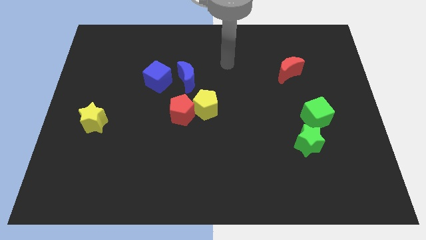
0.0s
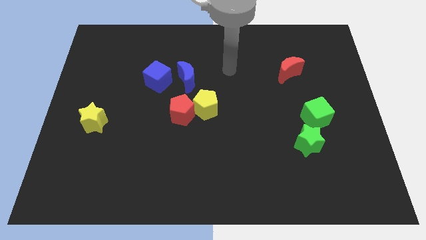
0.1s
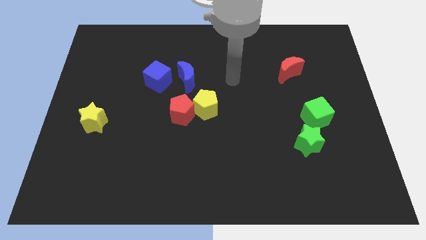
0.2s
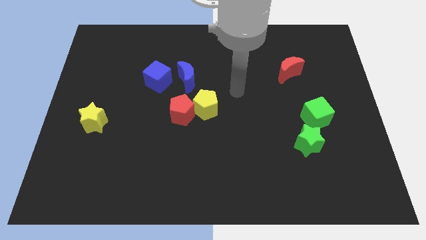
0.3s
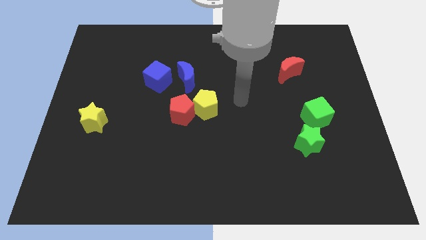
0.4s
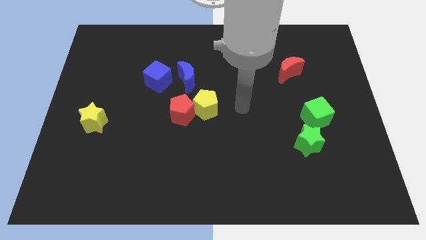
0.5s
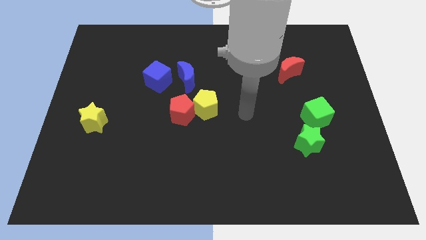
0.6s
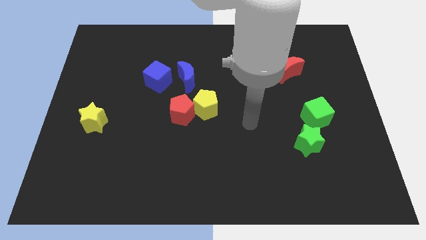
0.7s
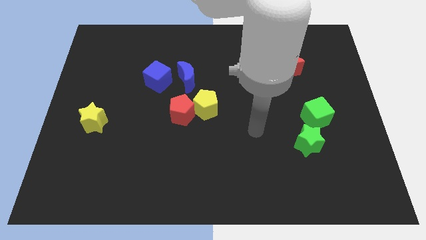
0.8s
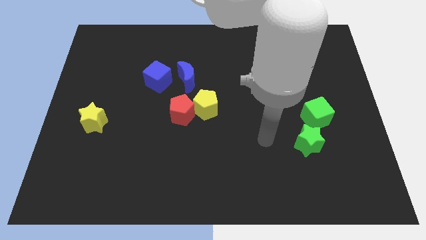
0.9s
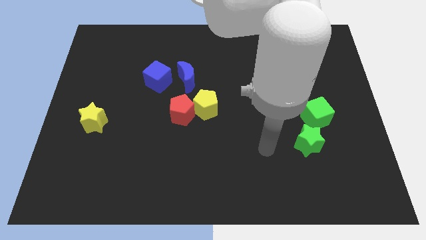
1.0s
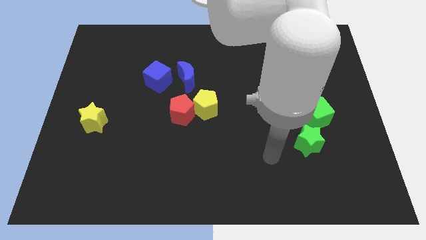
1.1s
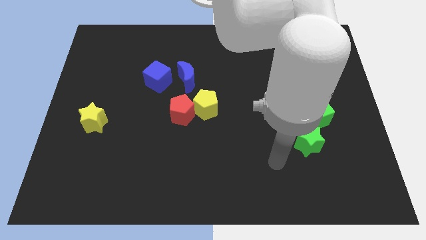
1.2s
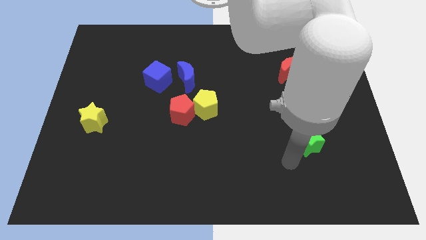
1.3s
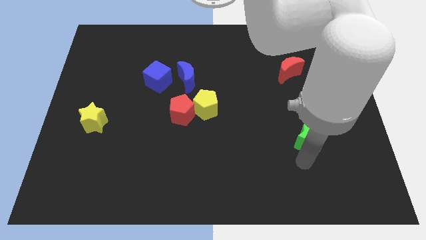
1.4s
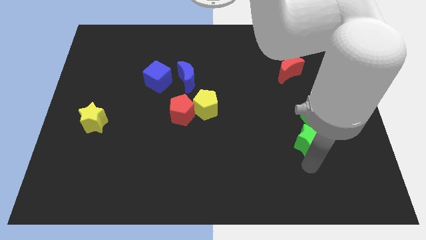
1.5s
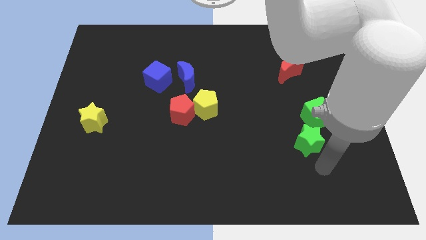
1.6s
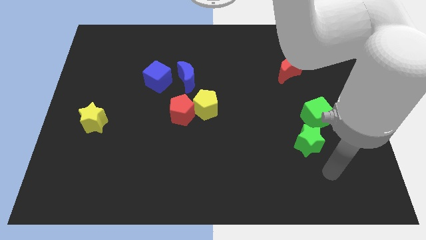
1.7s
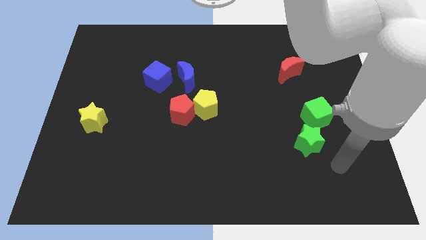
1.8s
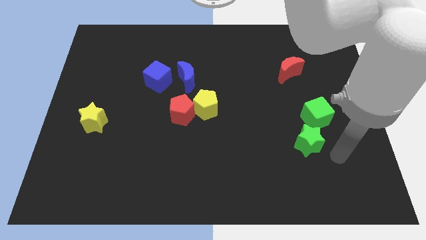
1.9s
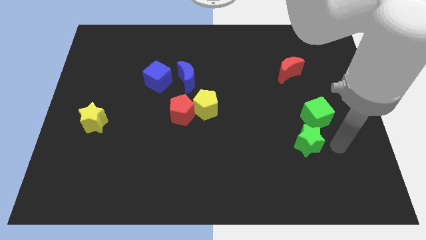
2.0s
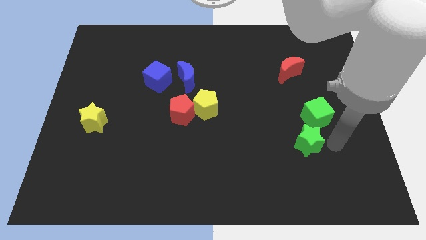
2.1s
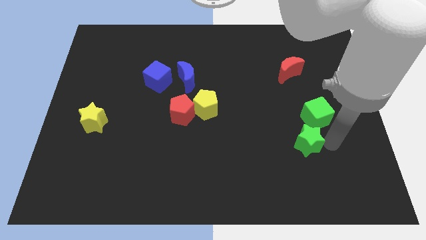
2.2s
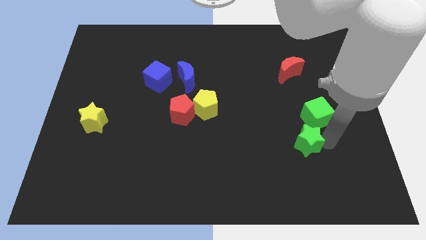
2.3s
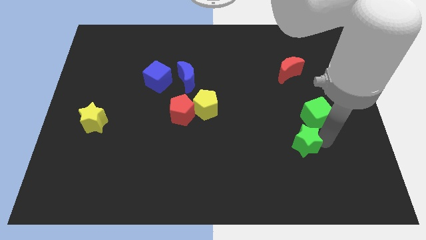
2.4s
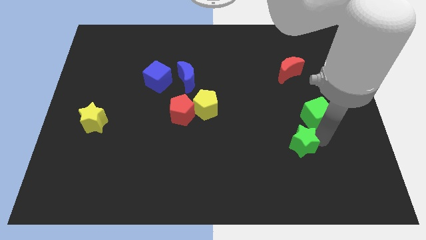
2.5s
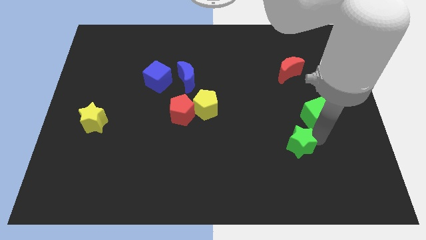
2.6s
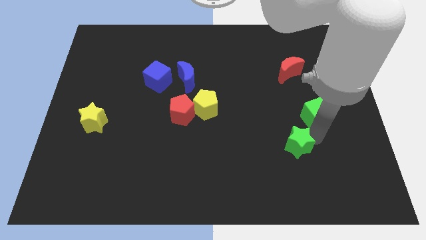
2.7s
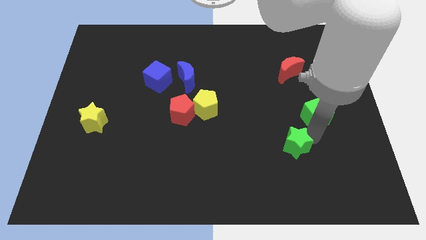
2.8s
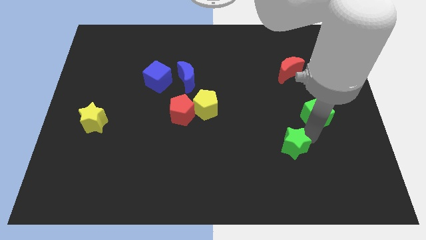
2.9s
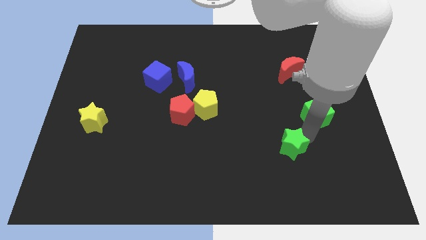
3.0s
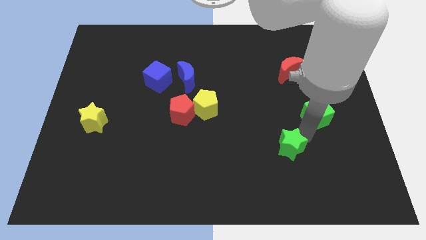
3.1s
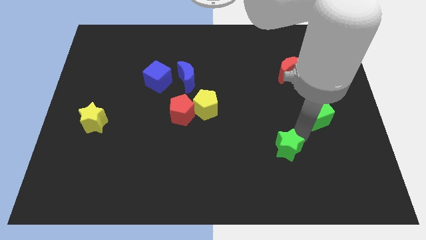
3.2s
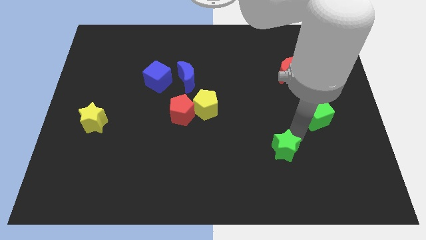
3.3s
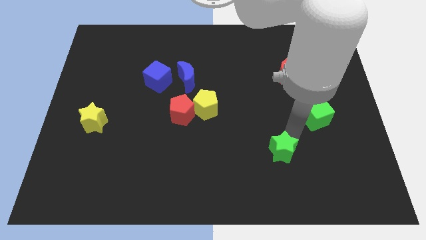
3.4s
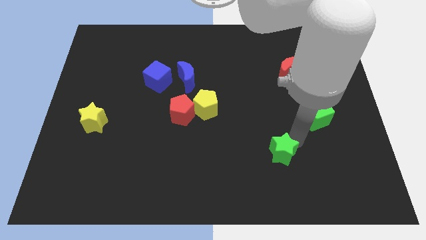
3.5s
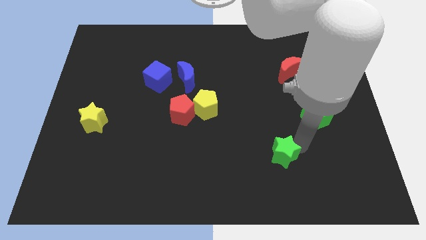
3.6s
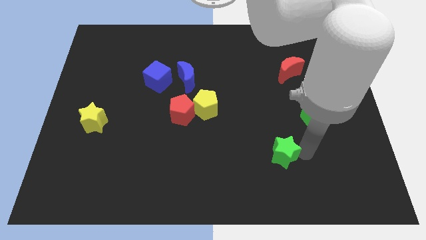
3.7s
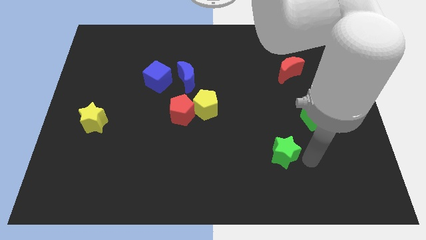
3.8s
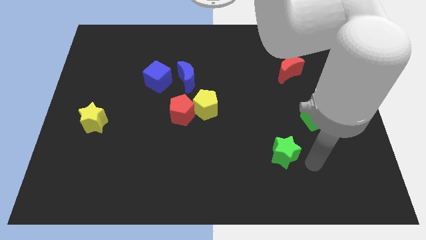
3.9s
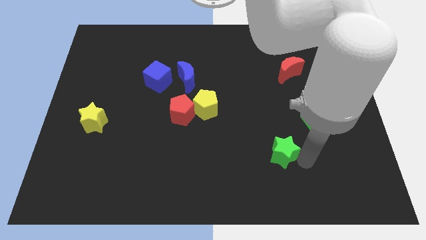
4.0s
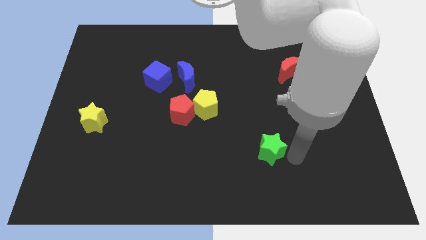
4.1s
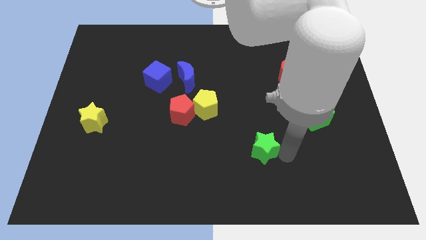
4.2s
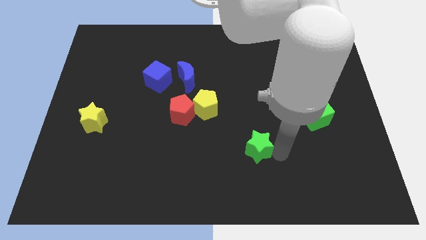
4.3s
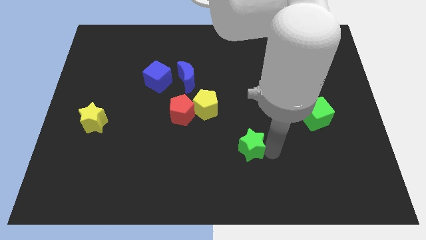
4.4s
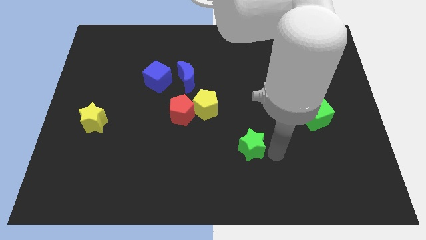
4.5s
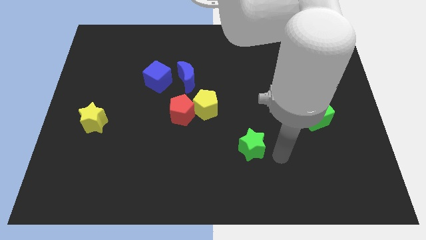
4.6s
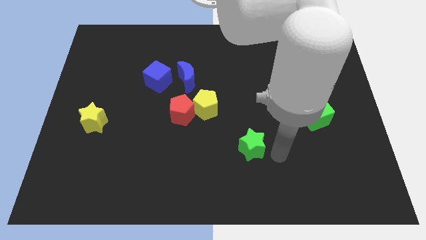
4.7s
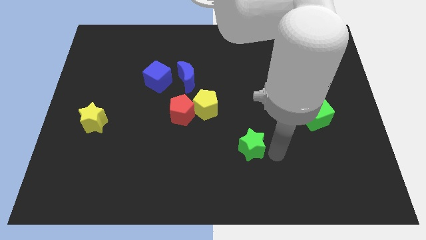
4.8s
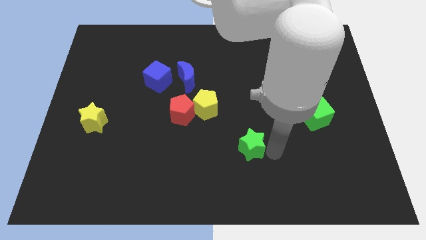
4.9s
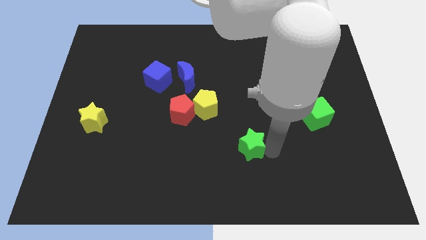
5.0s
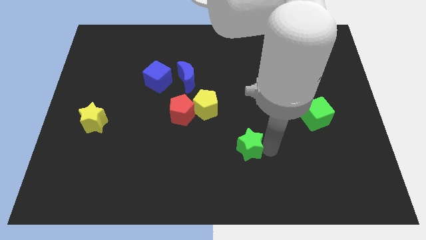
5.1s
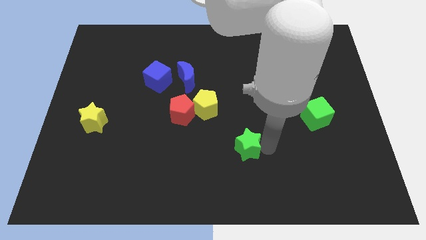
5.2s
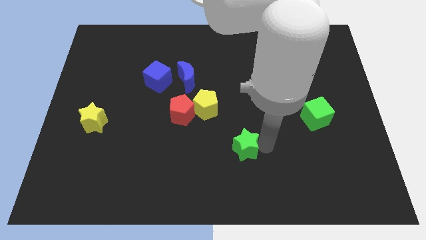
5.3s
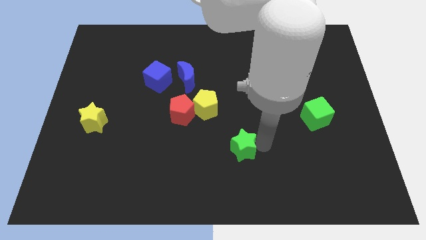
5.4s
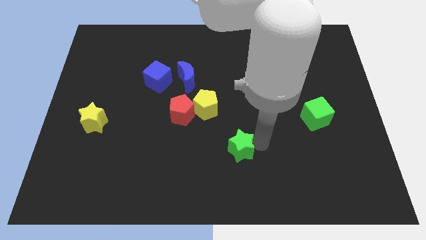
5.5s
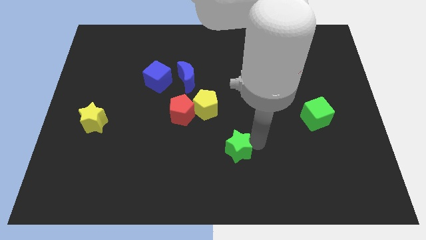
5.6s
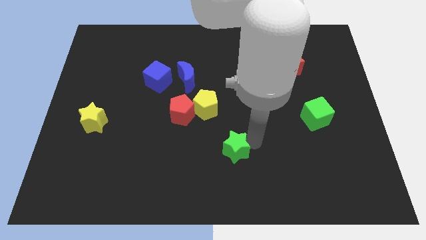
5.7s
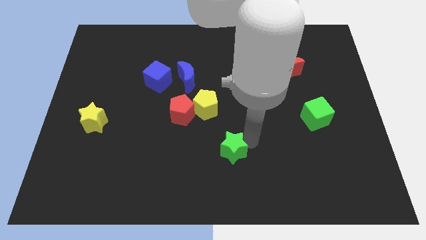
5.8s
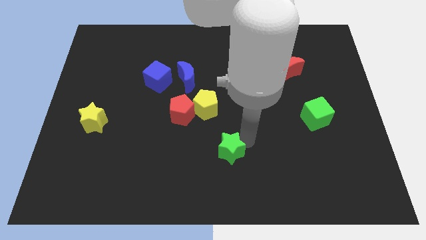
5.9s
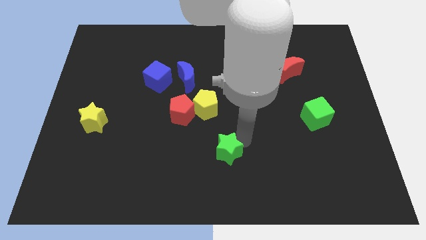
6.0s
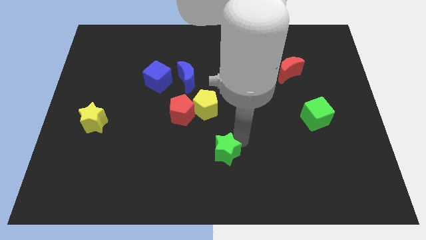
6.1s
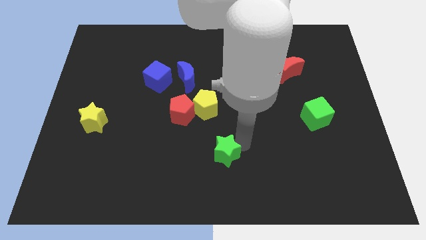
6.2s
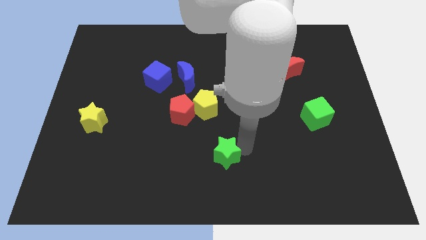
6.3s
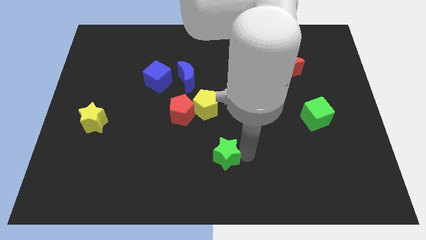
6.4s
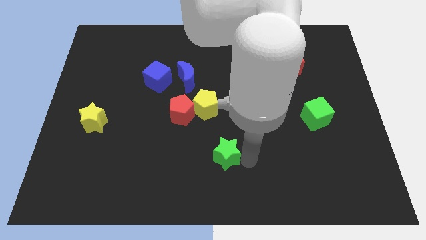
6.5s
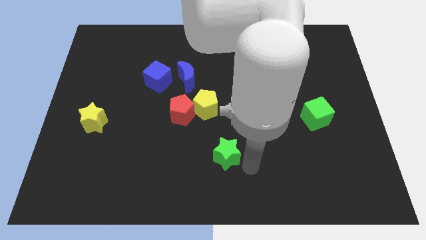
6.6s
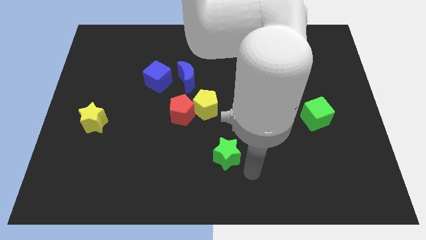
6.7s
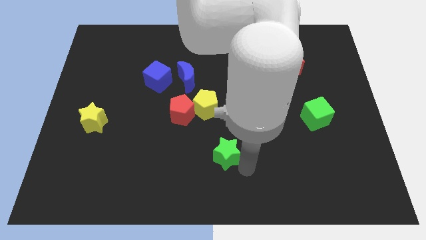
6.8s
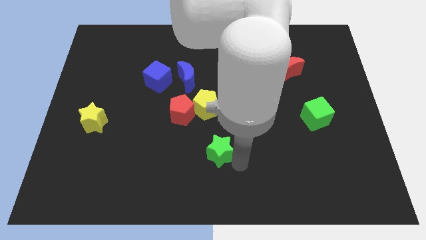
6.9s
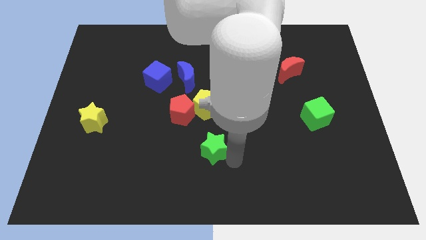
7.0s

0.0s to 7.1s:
push the green star left

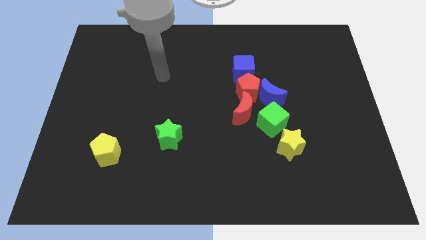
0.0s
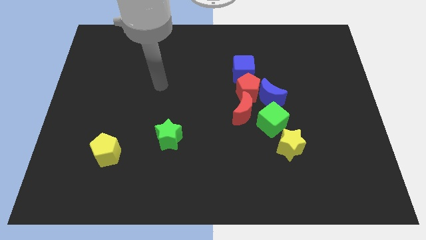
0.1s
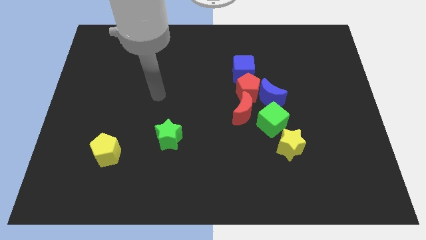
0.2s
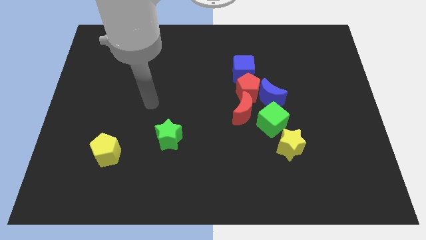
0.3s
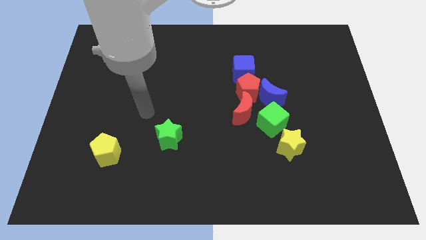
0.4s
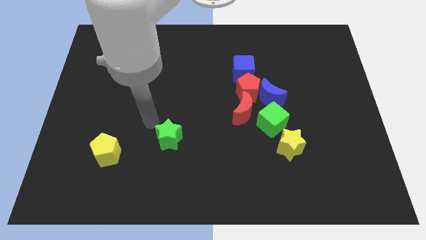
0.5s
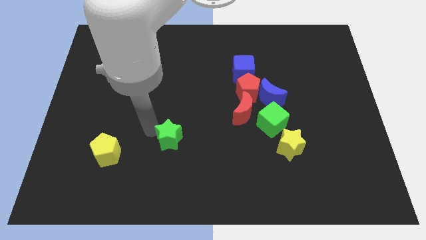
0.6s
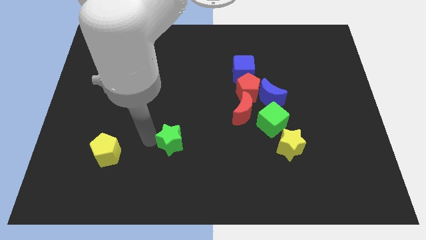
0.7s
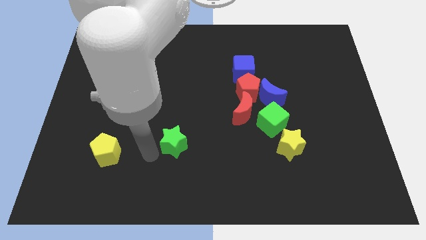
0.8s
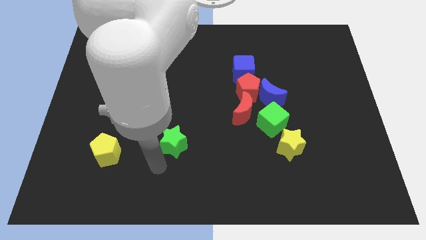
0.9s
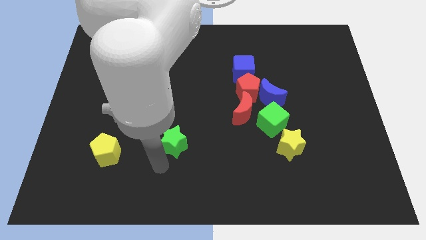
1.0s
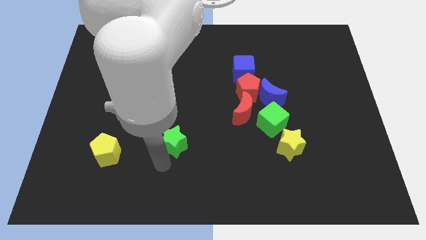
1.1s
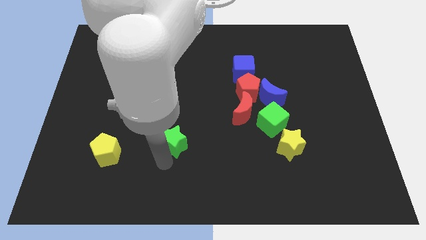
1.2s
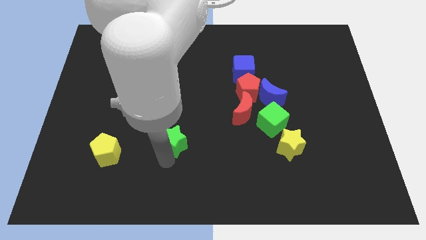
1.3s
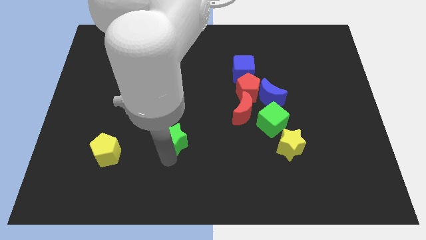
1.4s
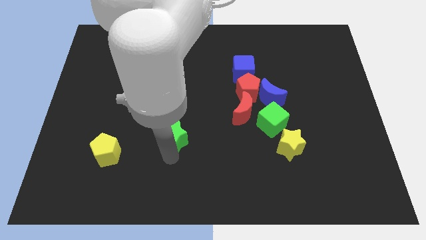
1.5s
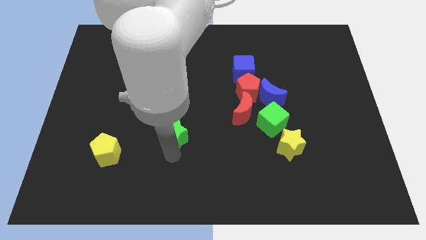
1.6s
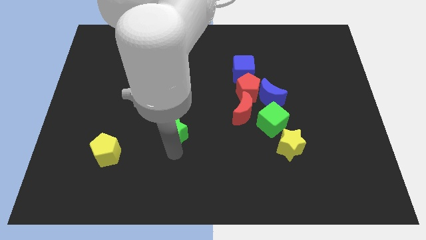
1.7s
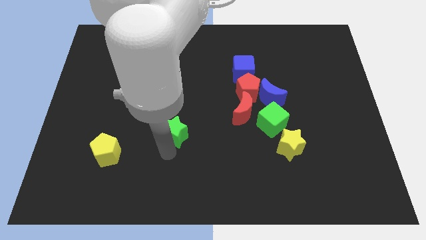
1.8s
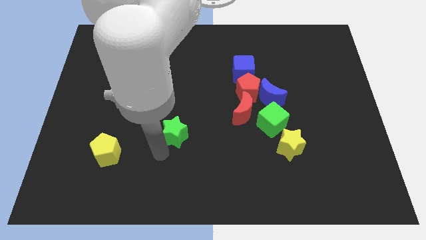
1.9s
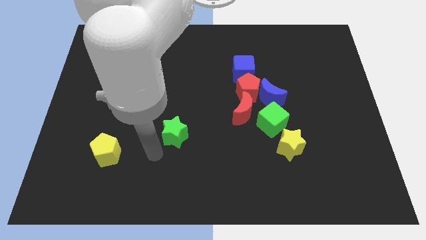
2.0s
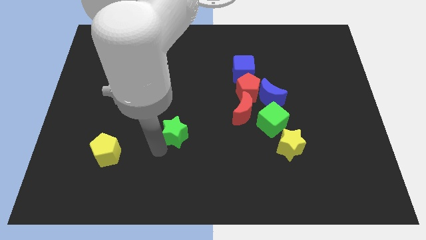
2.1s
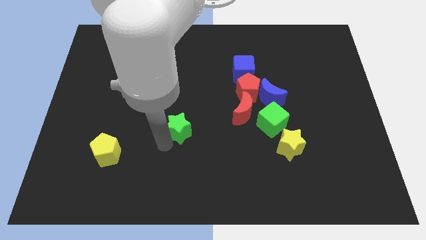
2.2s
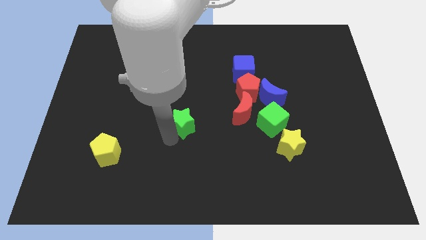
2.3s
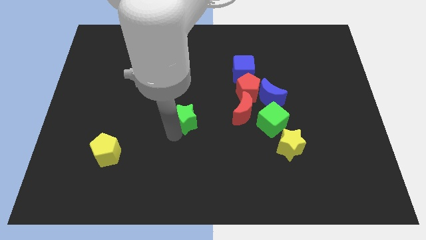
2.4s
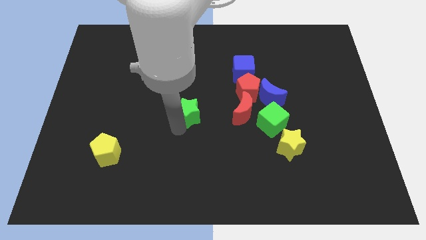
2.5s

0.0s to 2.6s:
move the green star somewhat up and to the right diagonally
